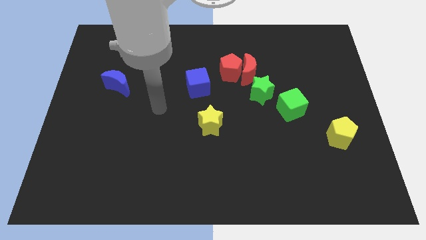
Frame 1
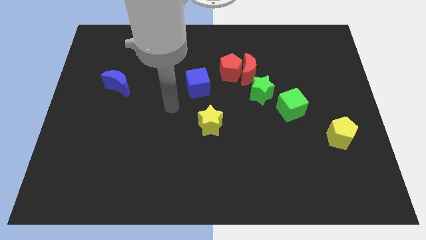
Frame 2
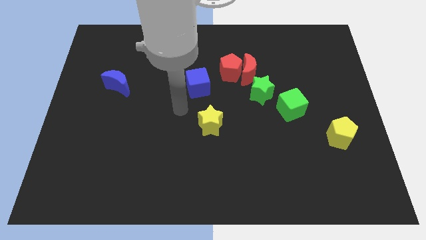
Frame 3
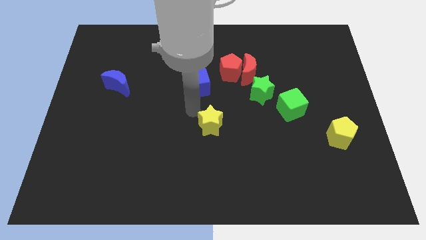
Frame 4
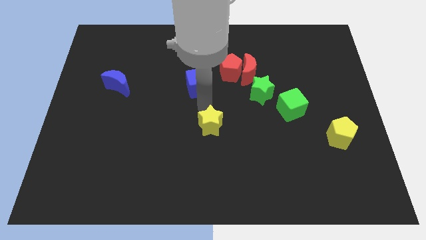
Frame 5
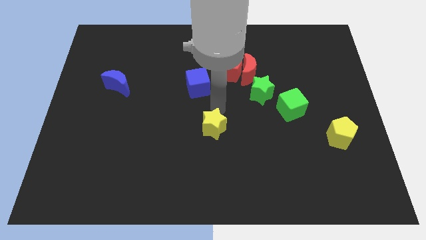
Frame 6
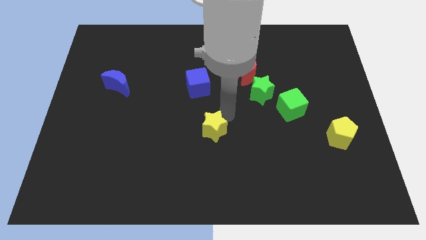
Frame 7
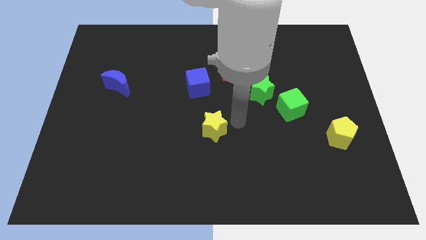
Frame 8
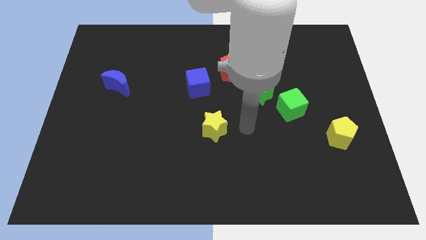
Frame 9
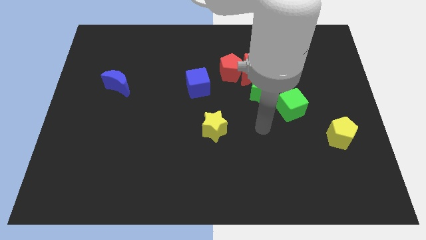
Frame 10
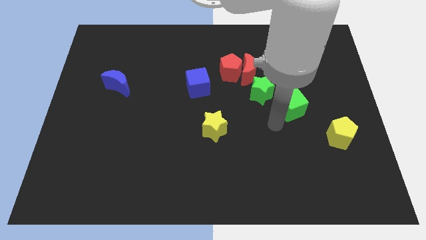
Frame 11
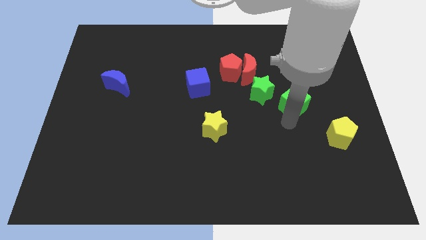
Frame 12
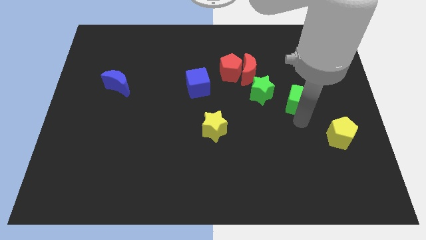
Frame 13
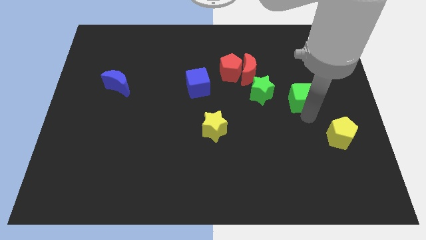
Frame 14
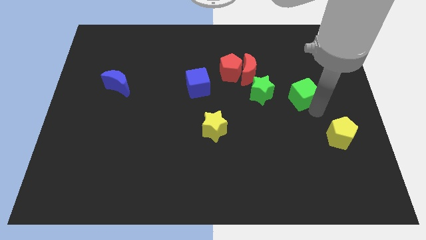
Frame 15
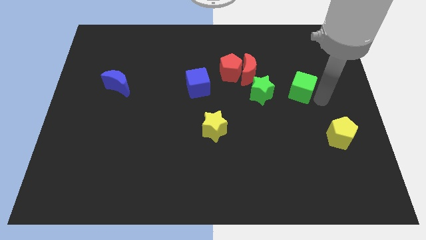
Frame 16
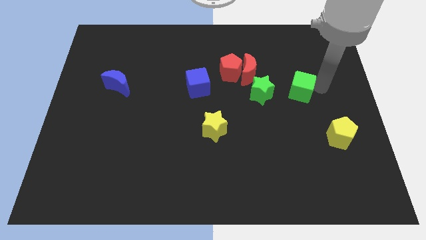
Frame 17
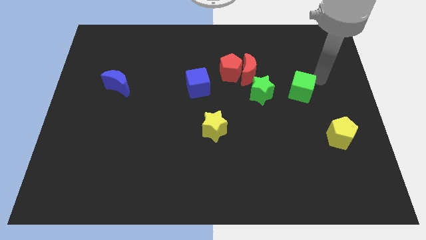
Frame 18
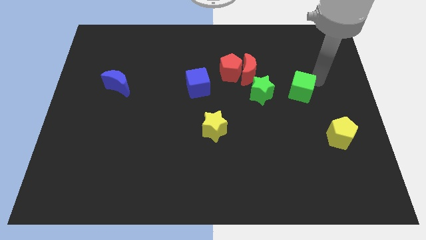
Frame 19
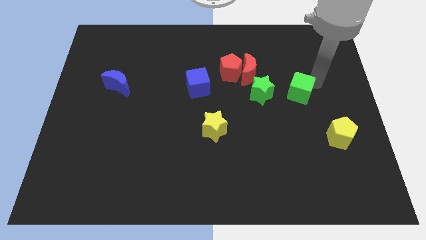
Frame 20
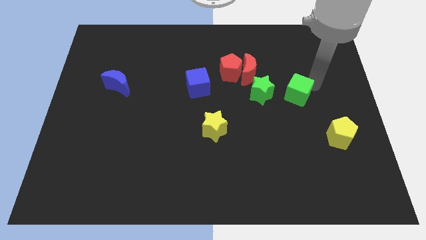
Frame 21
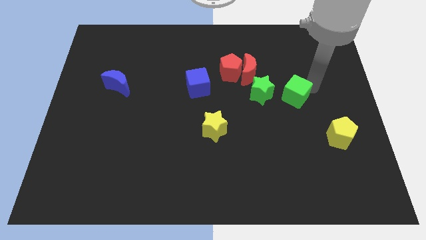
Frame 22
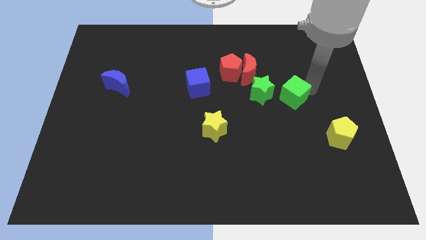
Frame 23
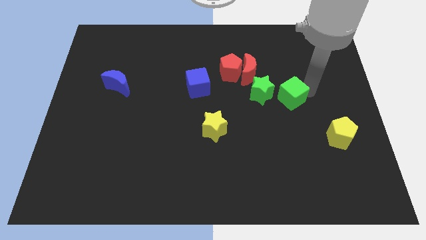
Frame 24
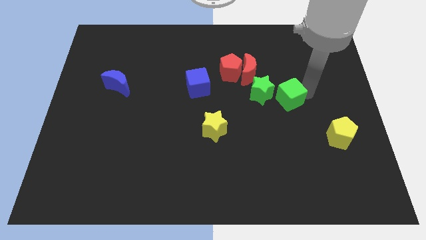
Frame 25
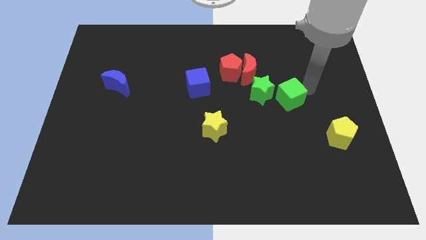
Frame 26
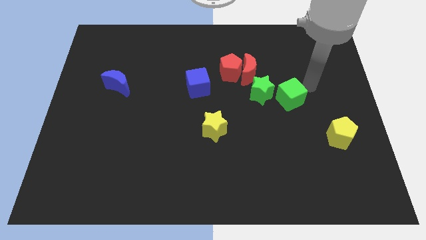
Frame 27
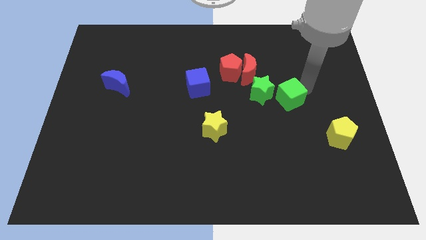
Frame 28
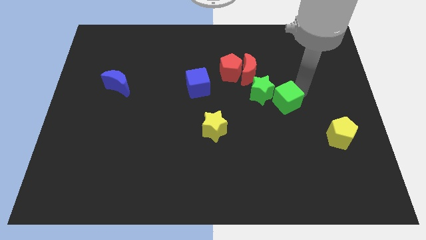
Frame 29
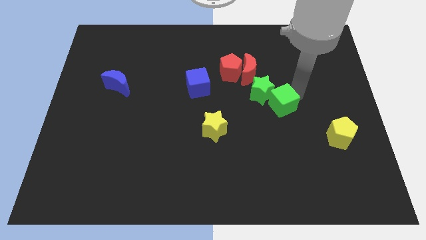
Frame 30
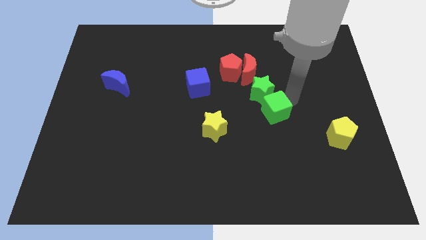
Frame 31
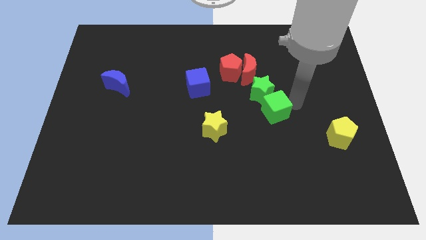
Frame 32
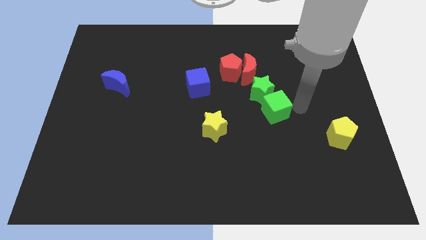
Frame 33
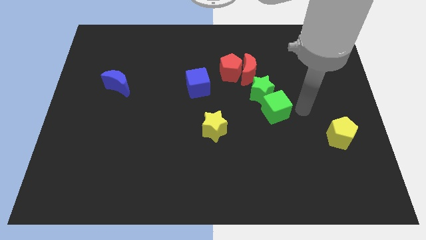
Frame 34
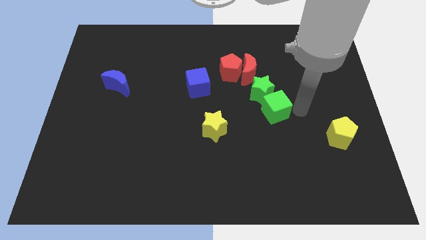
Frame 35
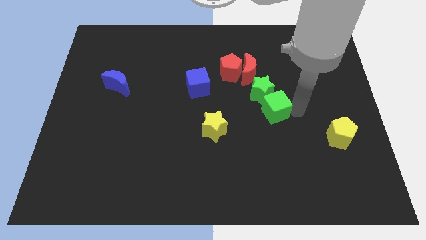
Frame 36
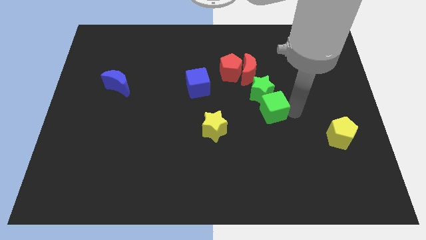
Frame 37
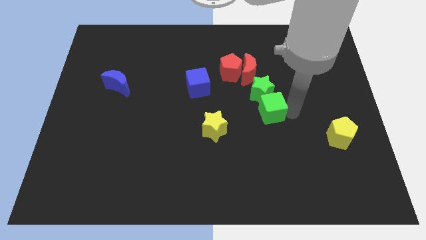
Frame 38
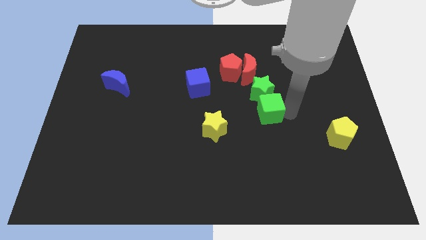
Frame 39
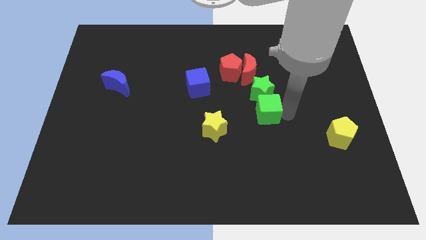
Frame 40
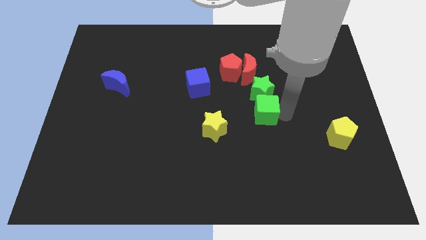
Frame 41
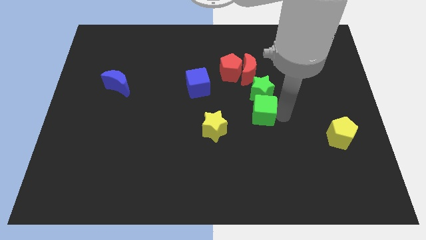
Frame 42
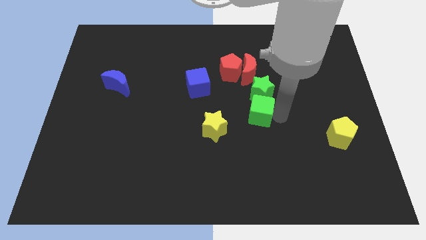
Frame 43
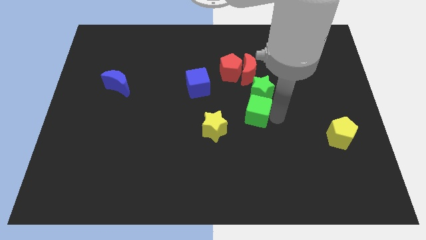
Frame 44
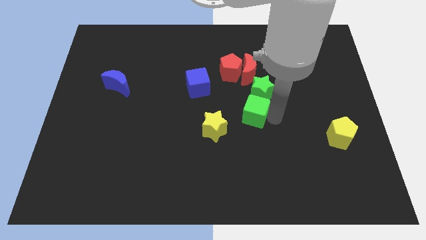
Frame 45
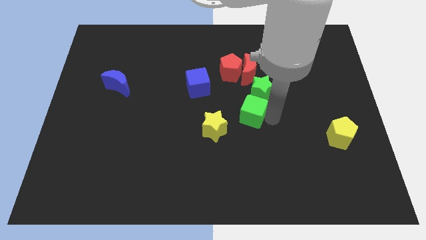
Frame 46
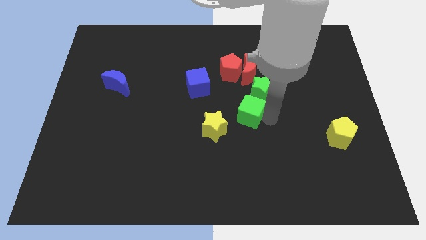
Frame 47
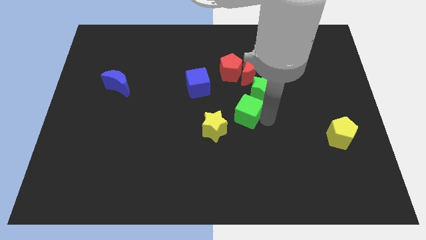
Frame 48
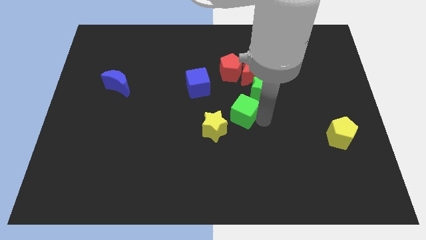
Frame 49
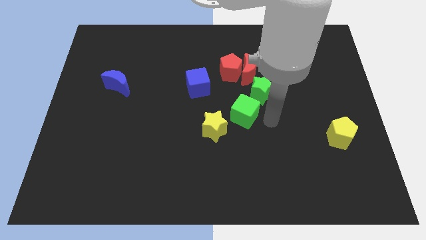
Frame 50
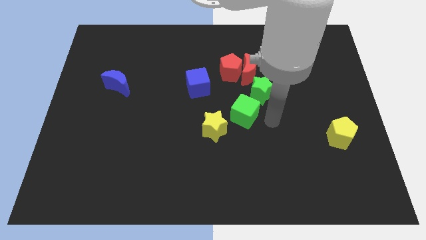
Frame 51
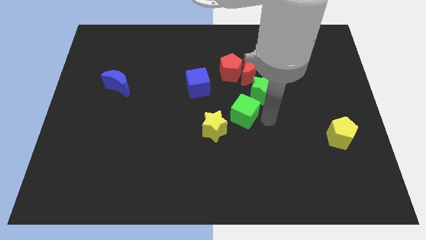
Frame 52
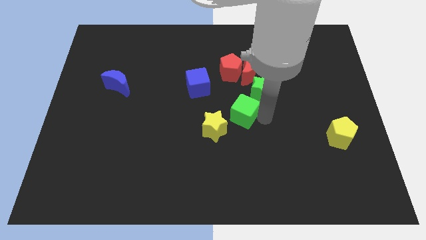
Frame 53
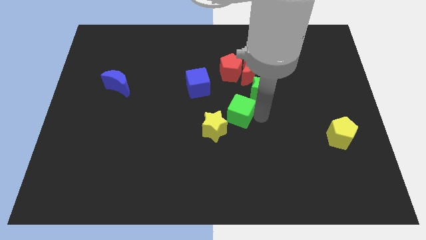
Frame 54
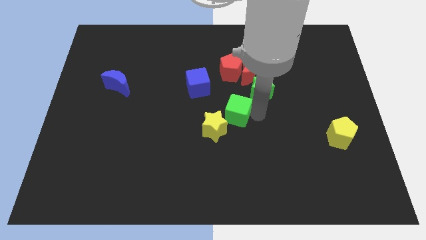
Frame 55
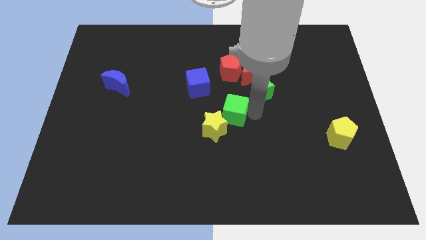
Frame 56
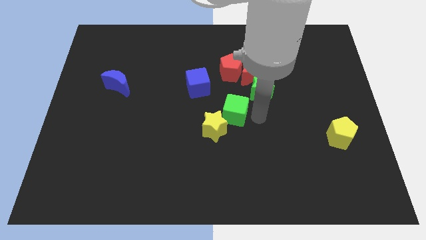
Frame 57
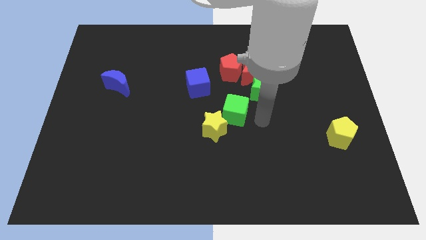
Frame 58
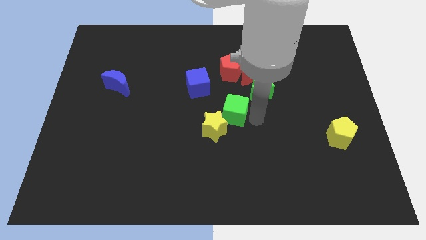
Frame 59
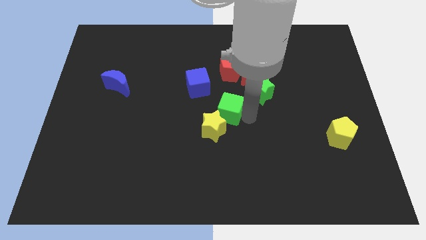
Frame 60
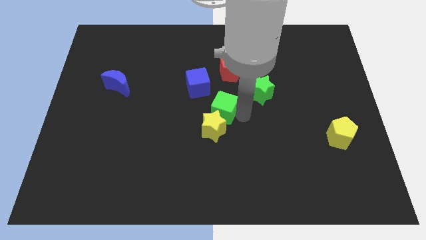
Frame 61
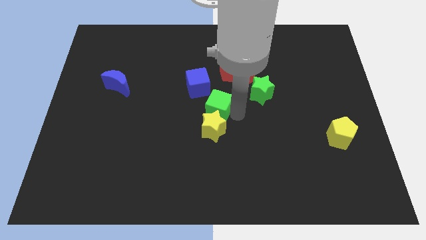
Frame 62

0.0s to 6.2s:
push the green cube diagonally up and to the left of the yellow star

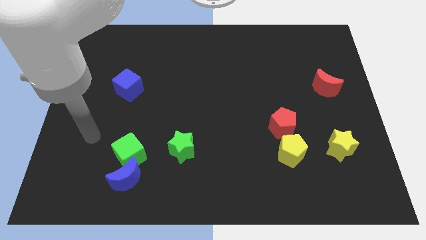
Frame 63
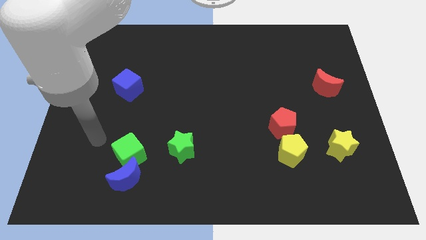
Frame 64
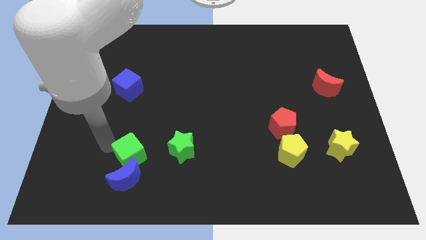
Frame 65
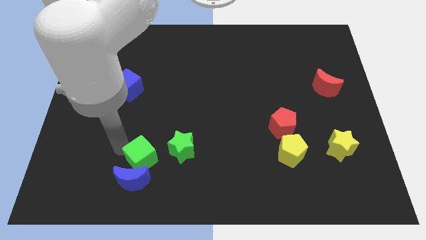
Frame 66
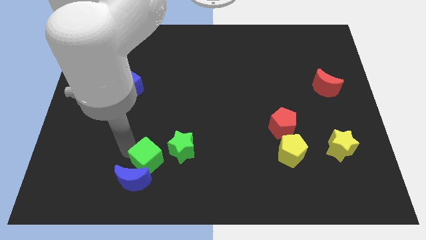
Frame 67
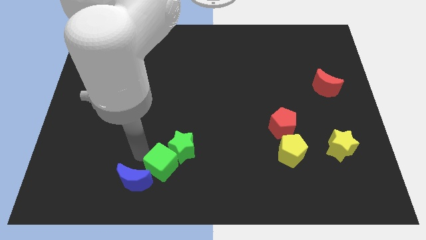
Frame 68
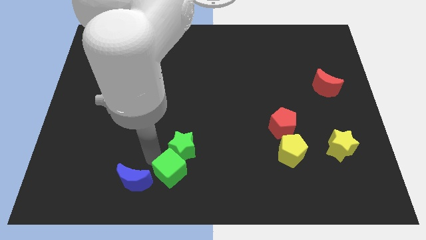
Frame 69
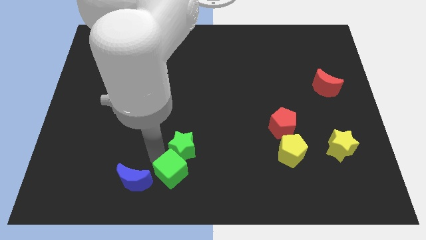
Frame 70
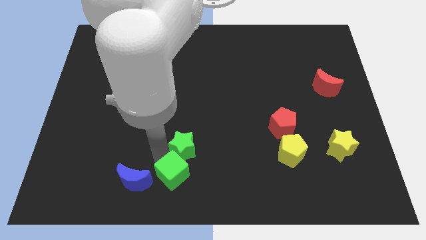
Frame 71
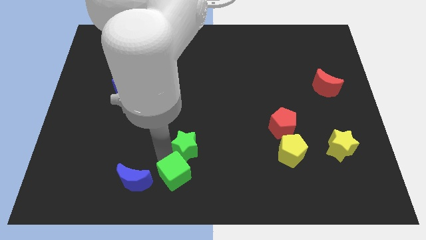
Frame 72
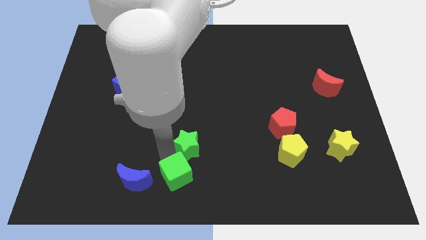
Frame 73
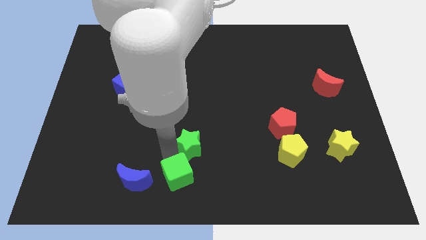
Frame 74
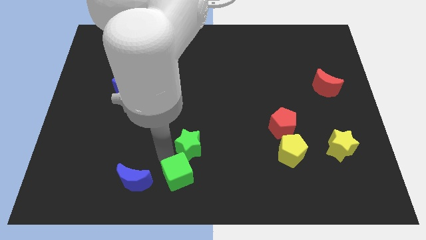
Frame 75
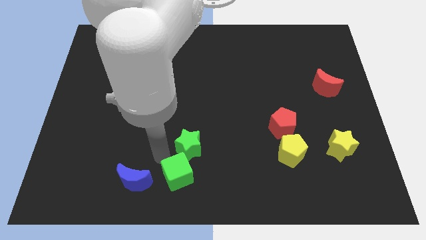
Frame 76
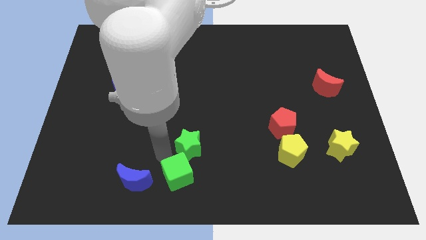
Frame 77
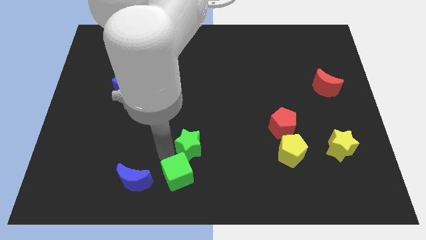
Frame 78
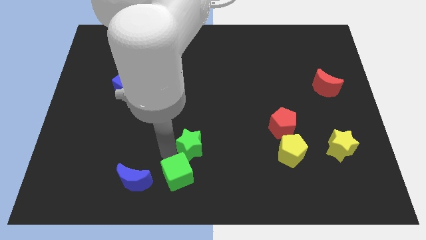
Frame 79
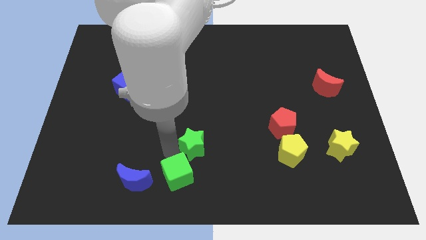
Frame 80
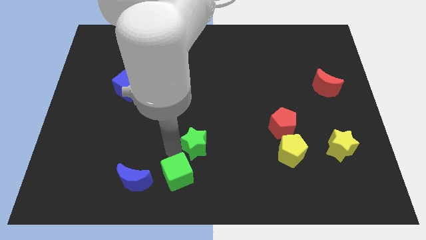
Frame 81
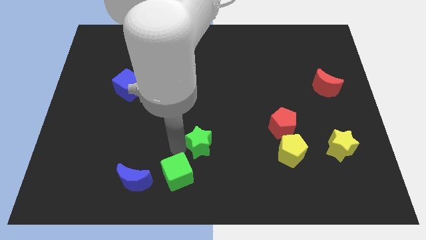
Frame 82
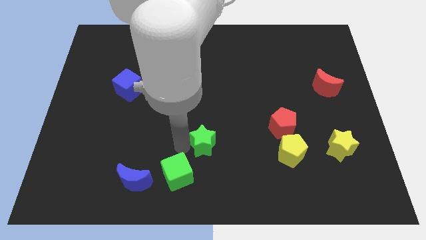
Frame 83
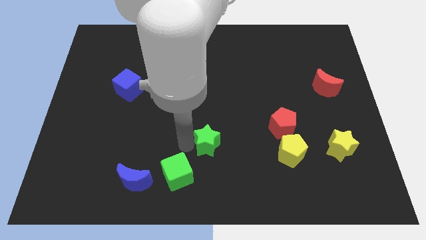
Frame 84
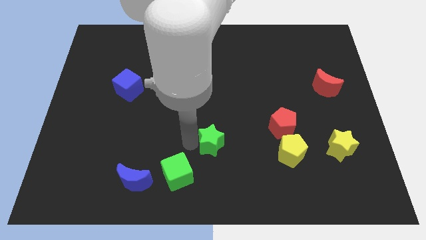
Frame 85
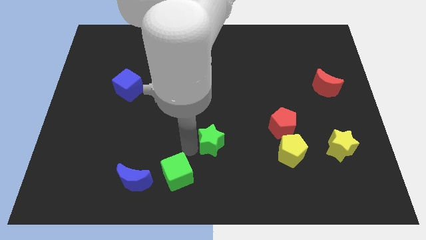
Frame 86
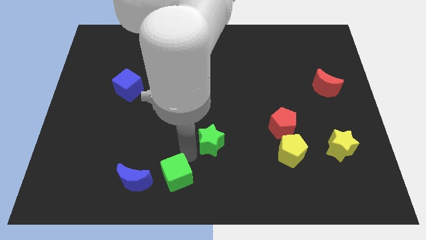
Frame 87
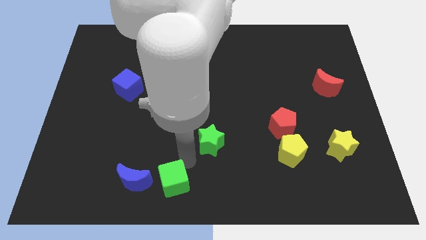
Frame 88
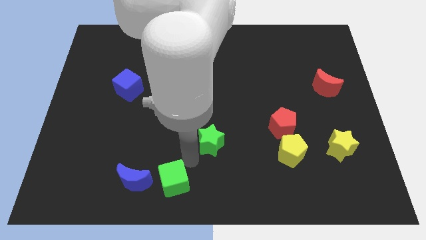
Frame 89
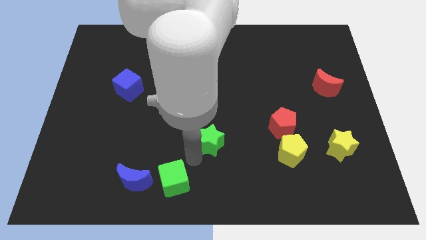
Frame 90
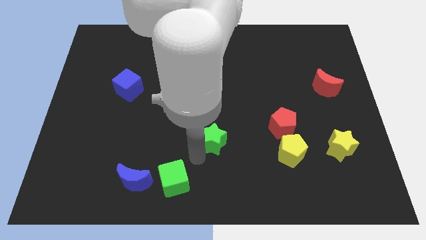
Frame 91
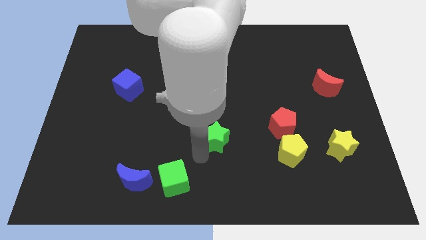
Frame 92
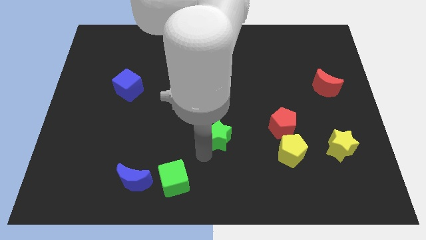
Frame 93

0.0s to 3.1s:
push the green star just left of the red pentagon
